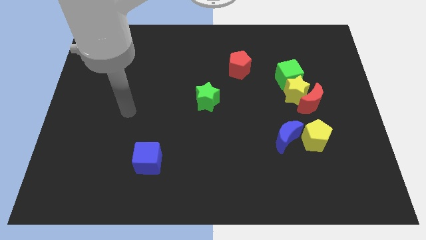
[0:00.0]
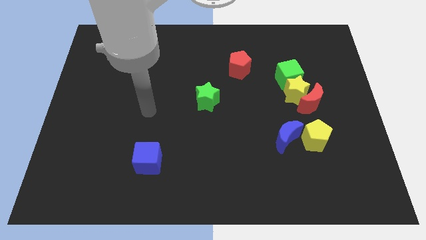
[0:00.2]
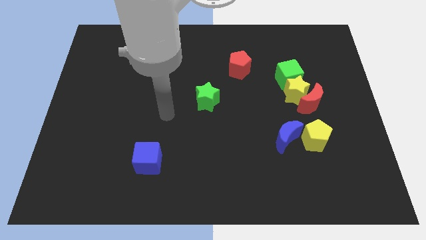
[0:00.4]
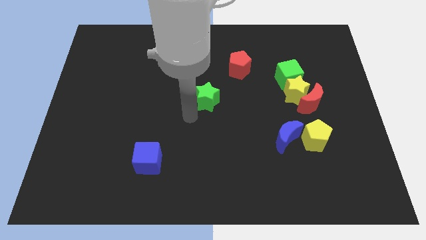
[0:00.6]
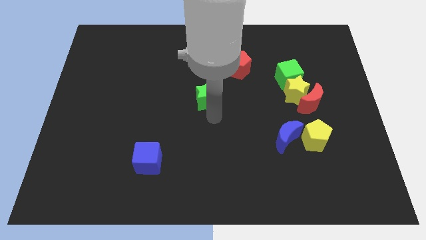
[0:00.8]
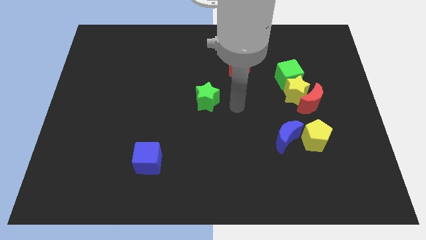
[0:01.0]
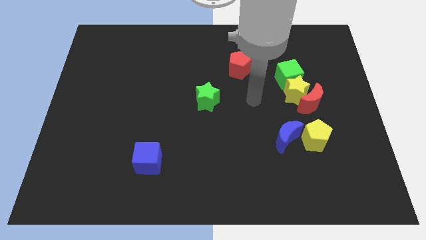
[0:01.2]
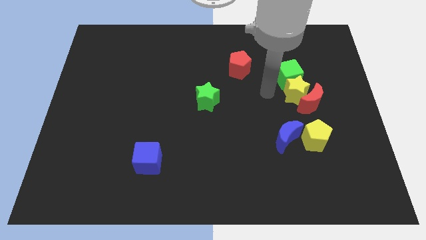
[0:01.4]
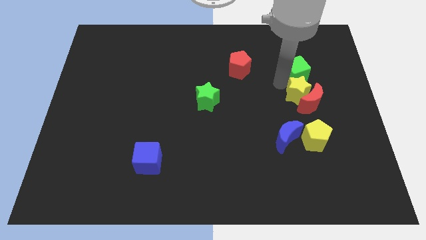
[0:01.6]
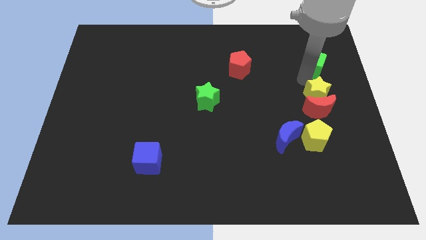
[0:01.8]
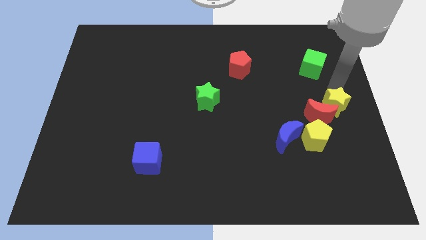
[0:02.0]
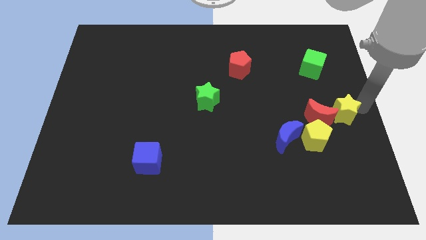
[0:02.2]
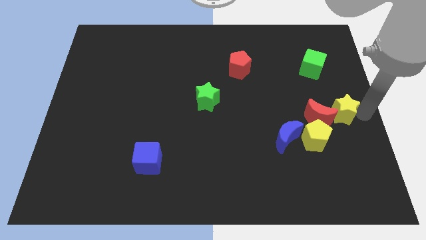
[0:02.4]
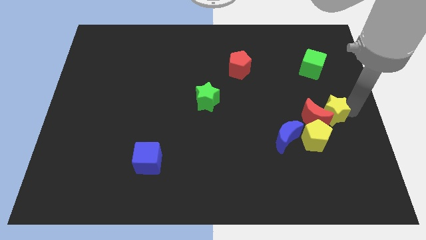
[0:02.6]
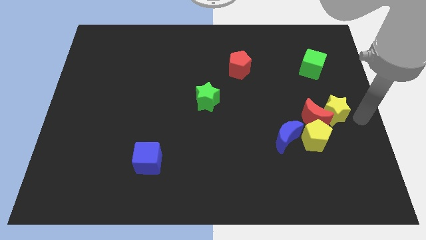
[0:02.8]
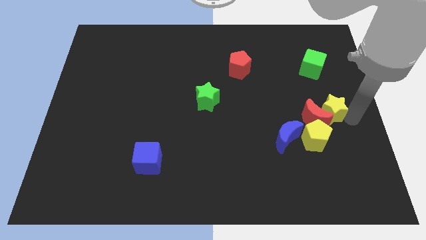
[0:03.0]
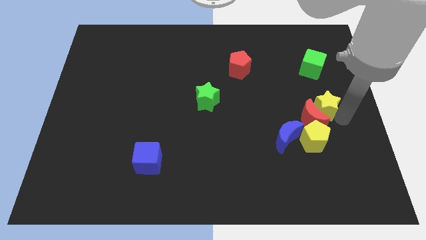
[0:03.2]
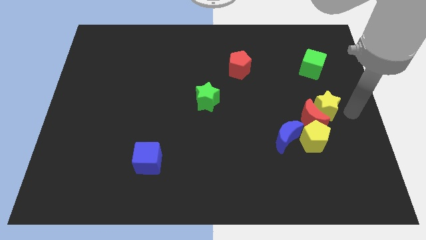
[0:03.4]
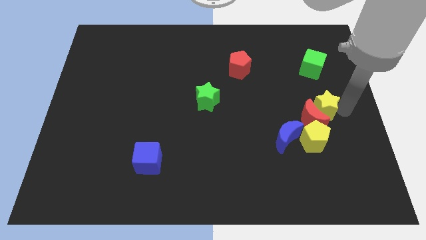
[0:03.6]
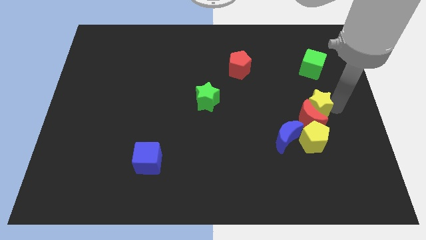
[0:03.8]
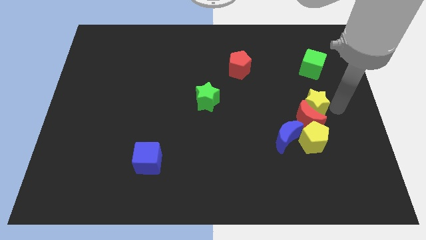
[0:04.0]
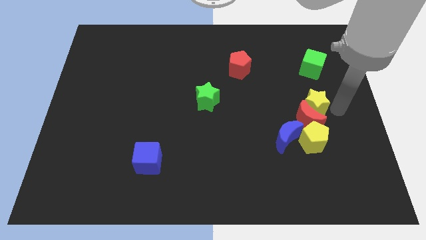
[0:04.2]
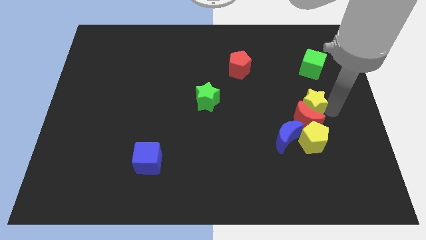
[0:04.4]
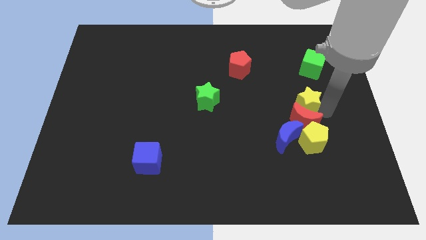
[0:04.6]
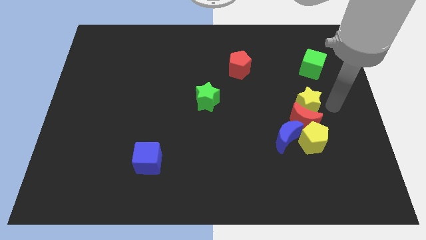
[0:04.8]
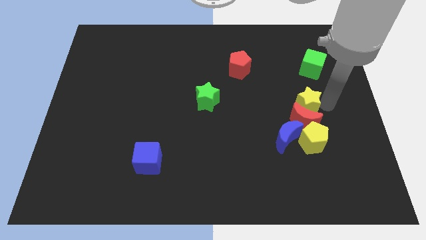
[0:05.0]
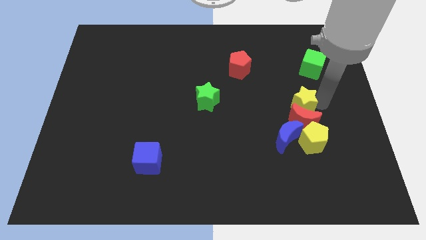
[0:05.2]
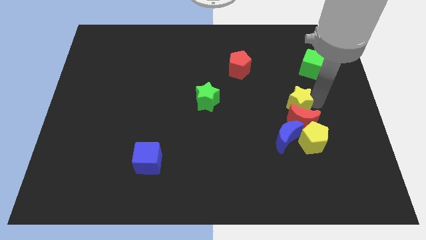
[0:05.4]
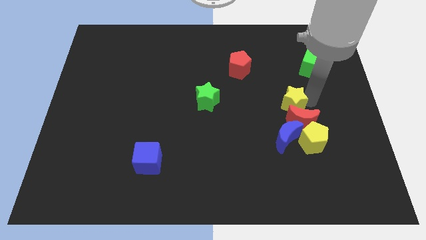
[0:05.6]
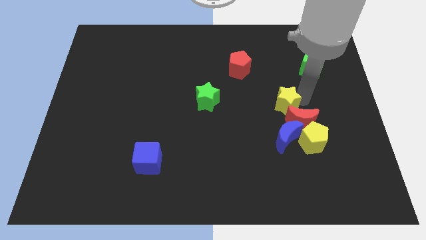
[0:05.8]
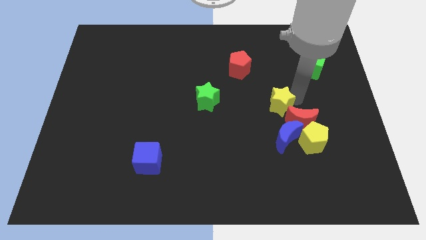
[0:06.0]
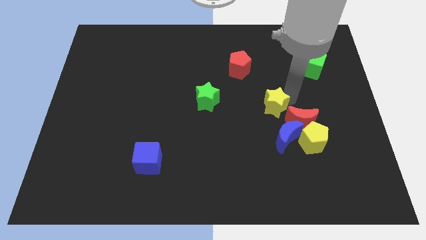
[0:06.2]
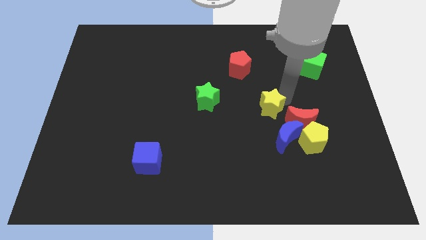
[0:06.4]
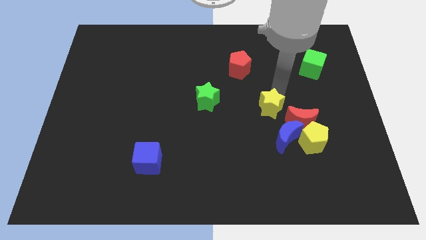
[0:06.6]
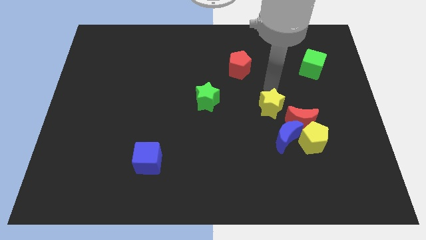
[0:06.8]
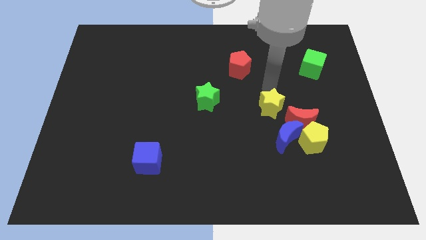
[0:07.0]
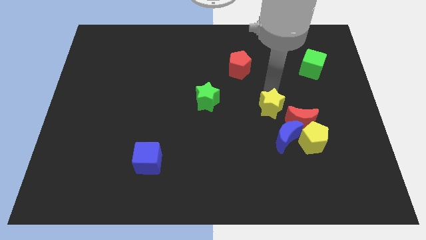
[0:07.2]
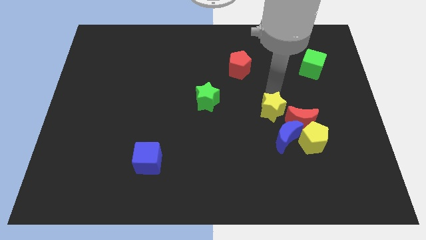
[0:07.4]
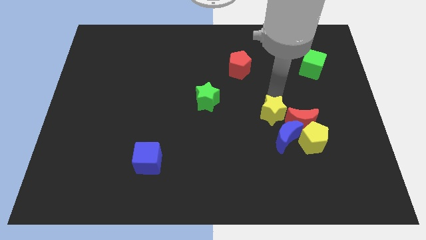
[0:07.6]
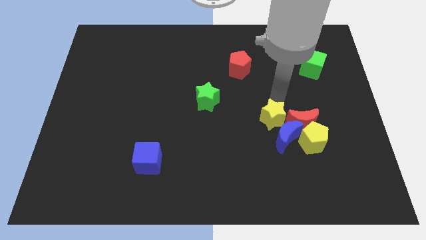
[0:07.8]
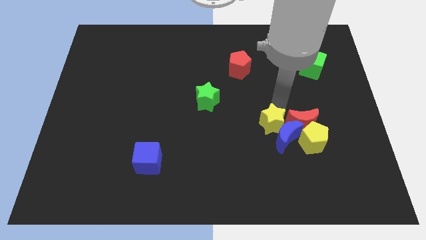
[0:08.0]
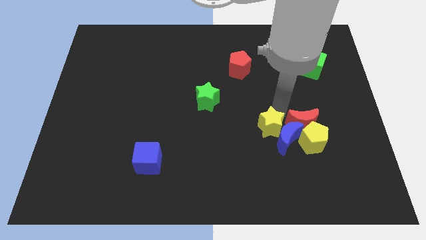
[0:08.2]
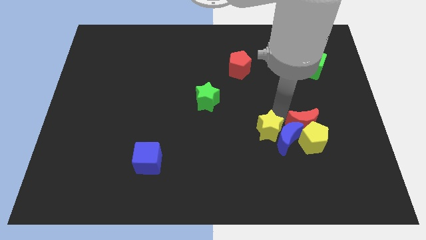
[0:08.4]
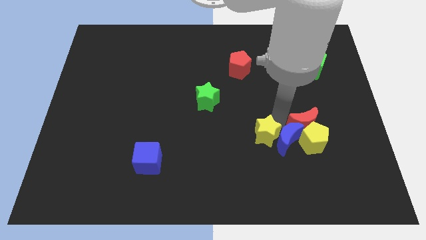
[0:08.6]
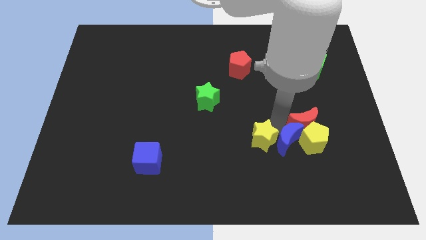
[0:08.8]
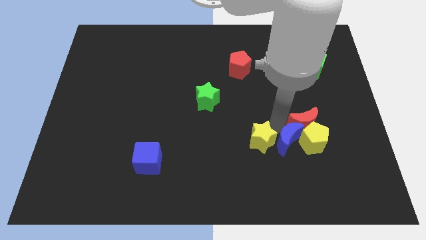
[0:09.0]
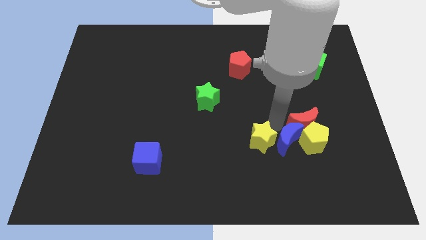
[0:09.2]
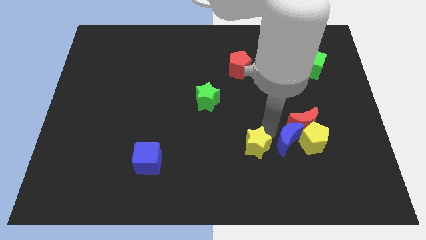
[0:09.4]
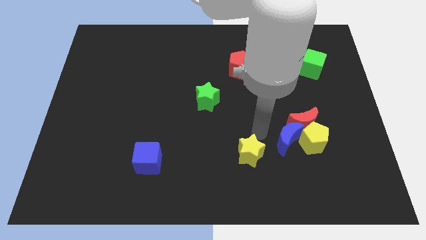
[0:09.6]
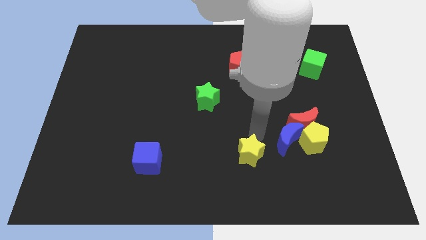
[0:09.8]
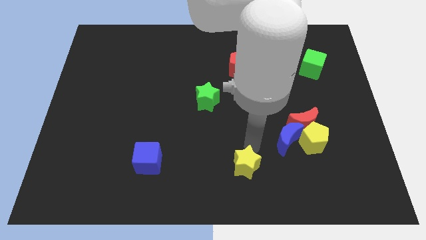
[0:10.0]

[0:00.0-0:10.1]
slide the yellow star to the bottom side

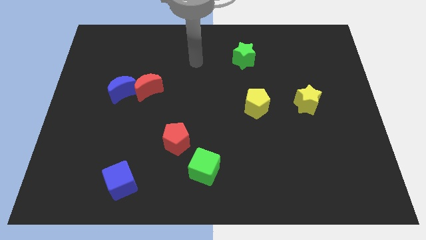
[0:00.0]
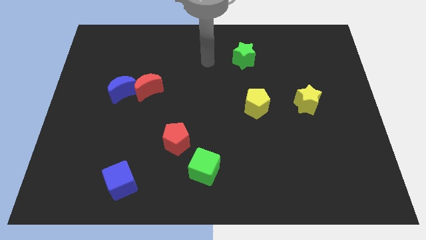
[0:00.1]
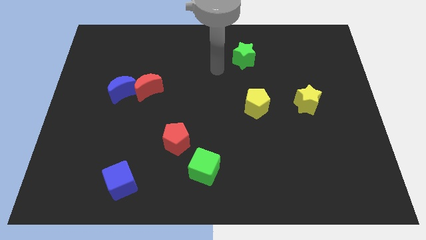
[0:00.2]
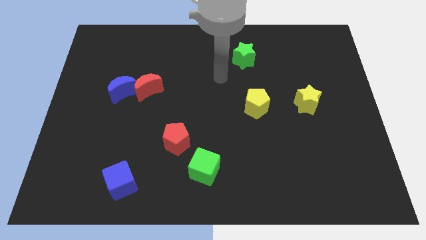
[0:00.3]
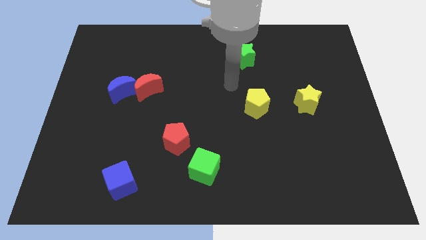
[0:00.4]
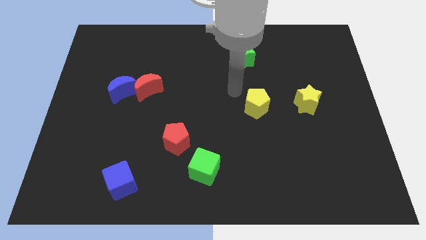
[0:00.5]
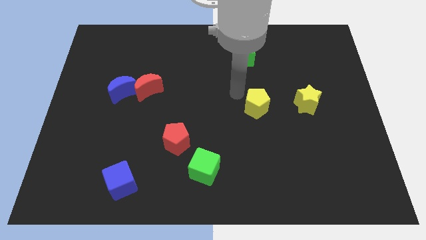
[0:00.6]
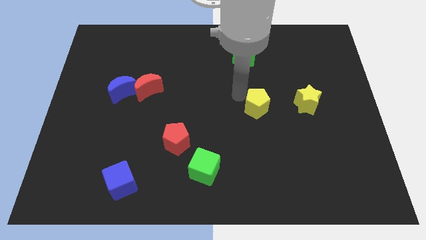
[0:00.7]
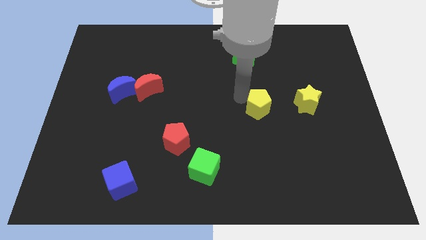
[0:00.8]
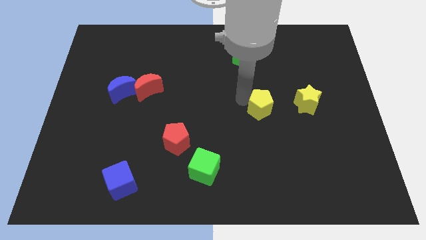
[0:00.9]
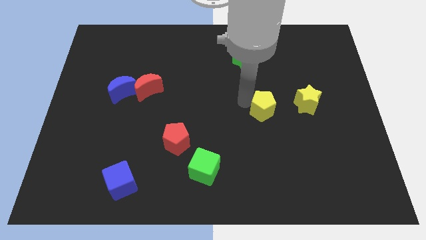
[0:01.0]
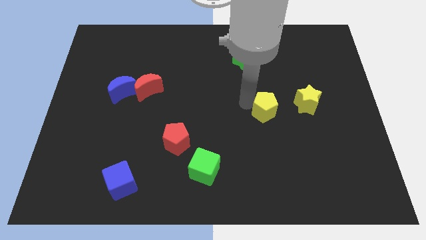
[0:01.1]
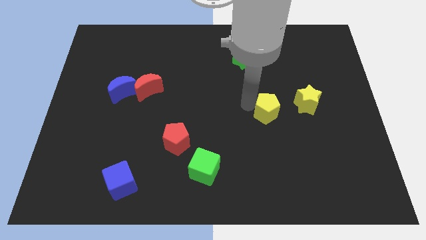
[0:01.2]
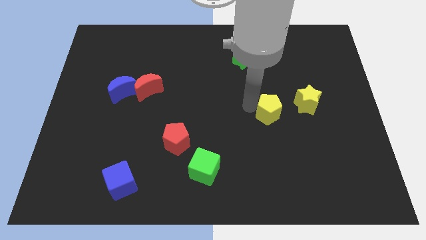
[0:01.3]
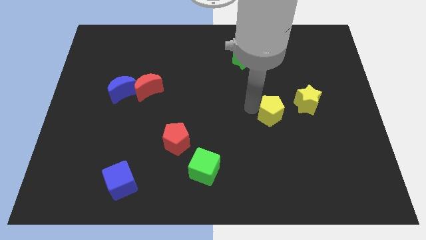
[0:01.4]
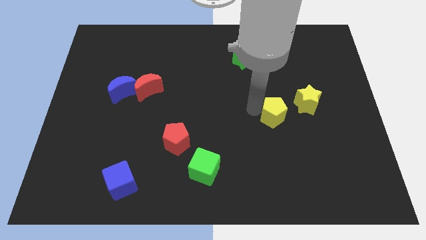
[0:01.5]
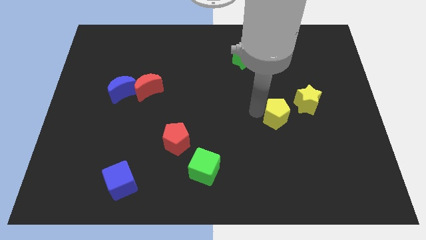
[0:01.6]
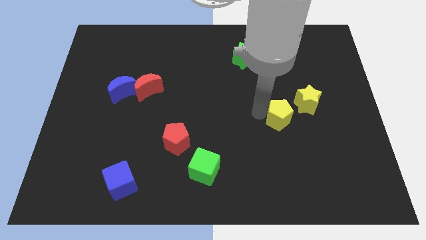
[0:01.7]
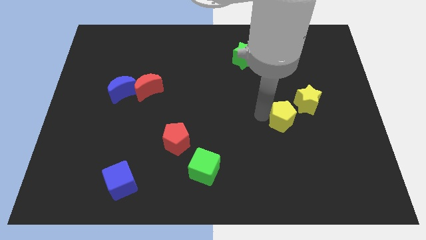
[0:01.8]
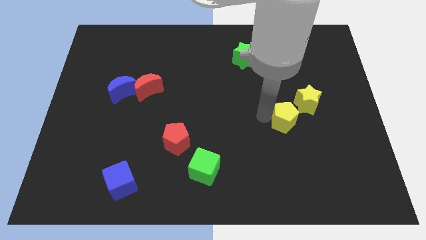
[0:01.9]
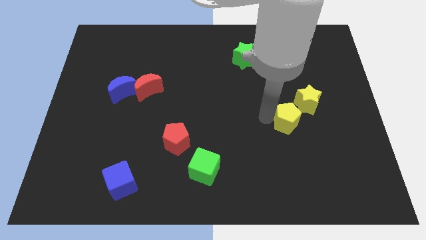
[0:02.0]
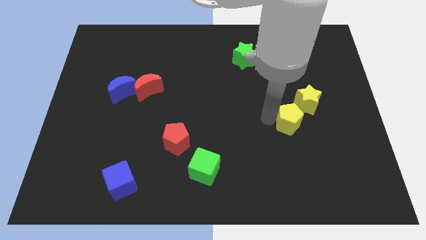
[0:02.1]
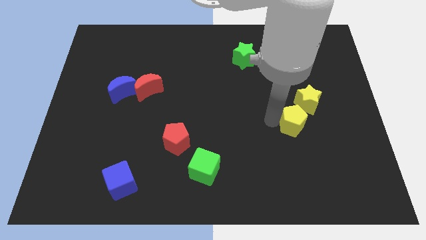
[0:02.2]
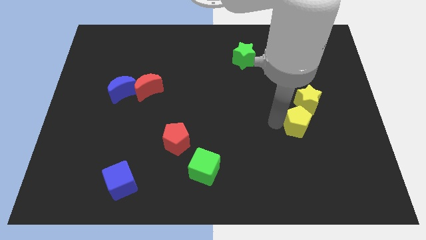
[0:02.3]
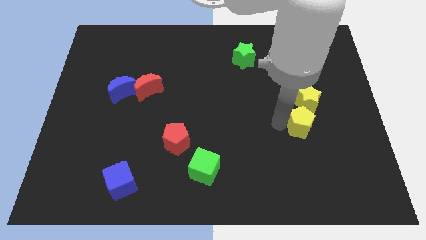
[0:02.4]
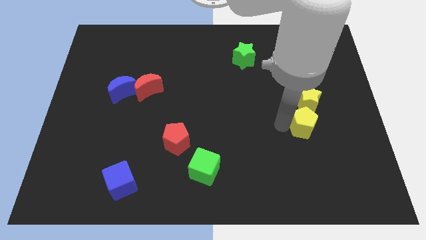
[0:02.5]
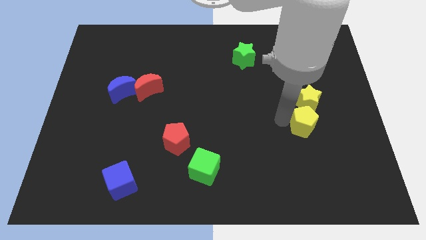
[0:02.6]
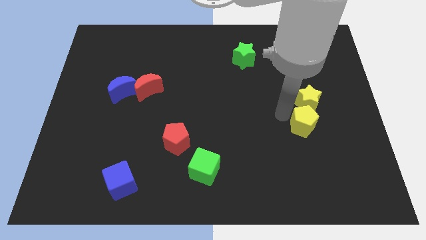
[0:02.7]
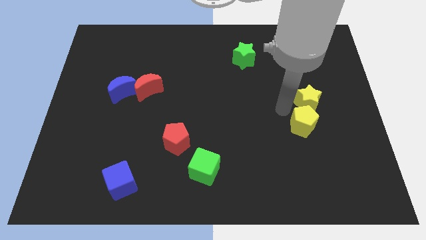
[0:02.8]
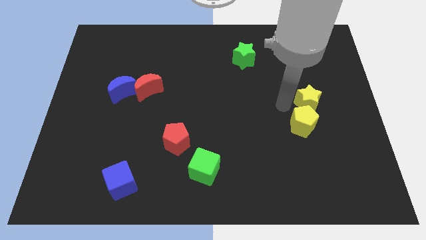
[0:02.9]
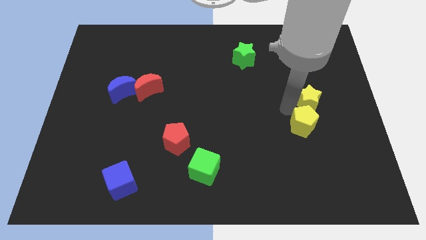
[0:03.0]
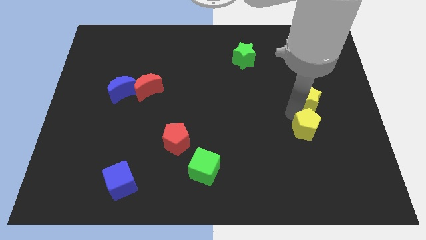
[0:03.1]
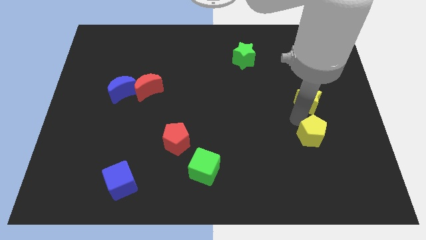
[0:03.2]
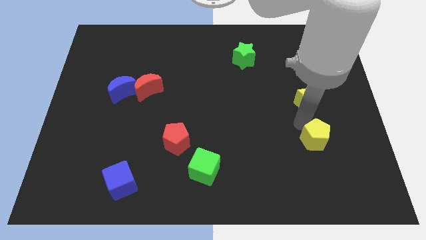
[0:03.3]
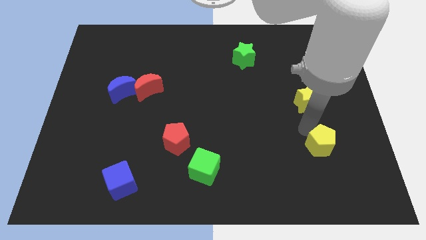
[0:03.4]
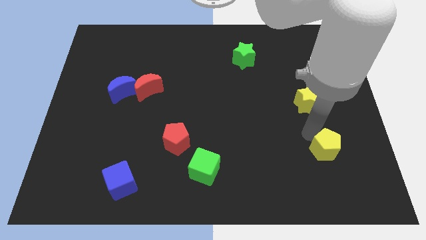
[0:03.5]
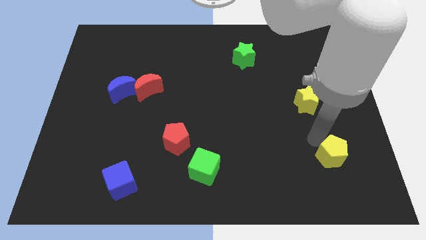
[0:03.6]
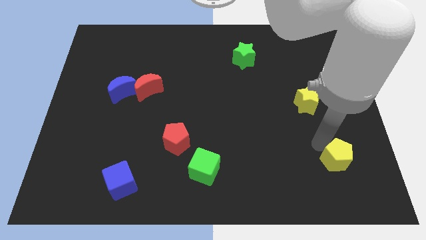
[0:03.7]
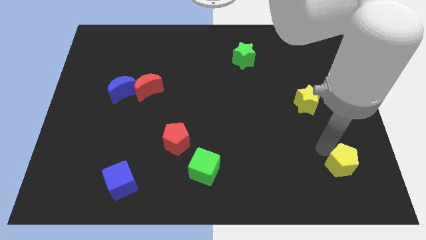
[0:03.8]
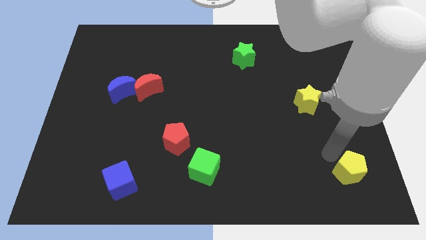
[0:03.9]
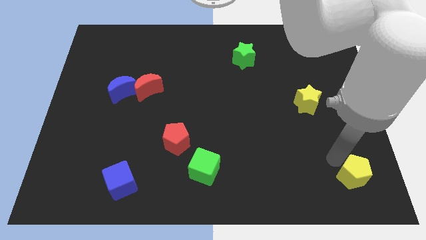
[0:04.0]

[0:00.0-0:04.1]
slide the yellow pentagon to the lower right corner
